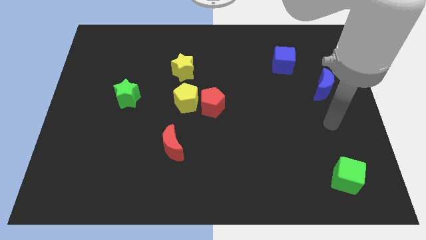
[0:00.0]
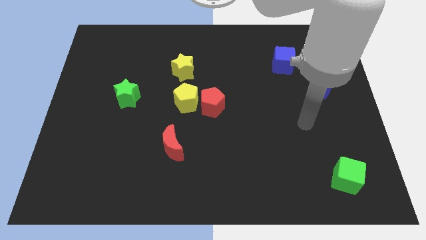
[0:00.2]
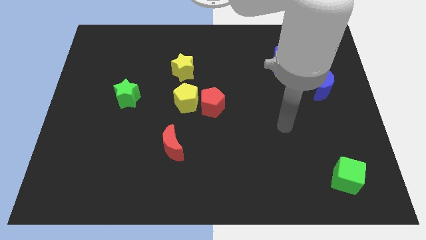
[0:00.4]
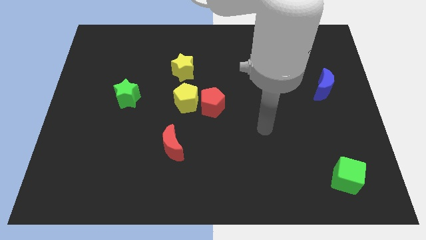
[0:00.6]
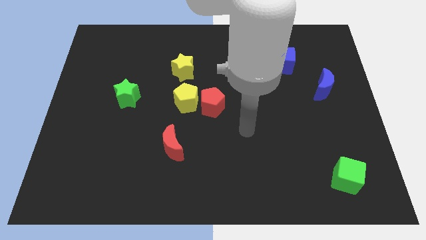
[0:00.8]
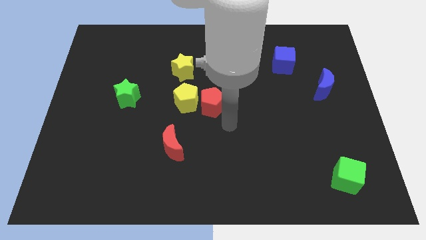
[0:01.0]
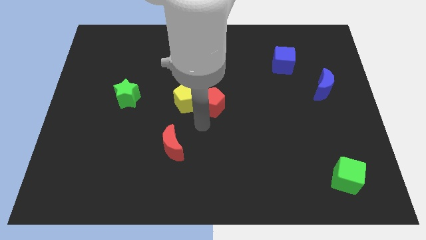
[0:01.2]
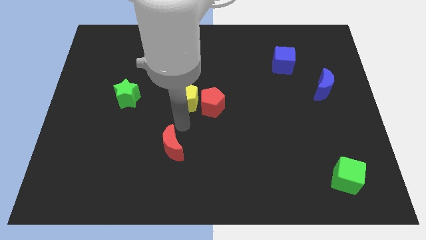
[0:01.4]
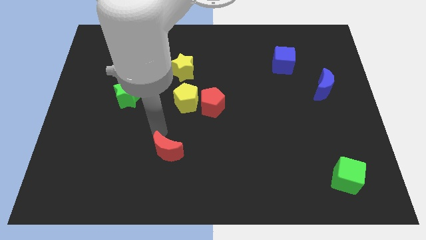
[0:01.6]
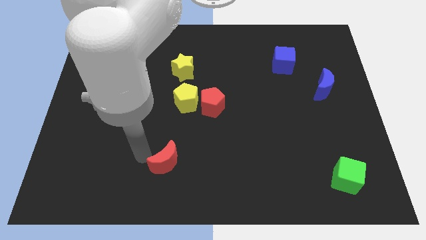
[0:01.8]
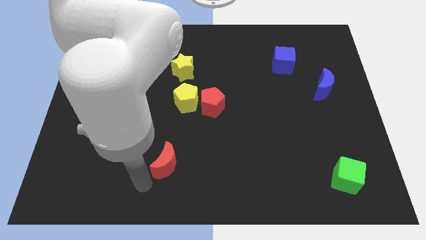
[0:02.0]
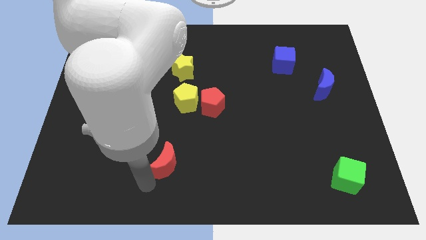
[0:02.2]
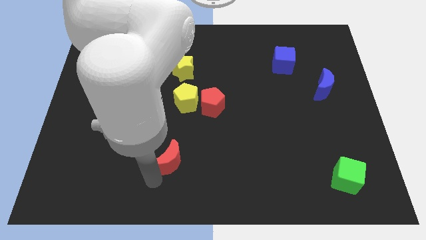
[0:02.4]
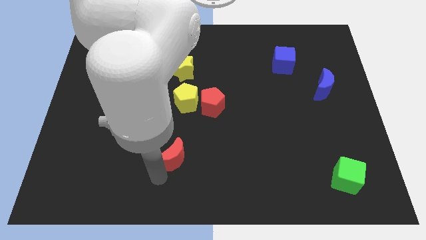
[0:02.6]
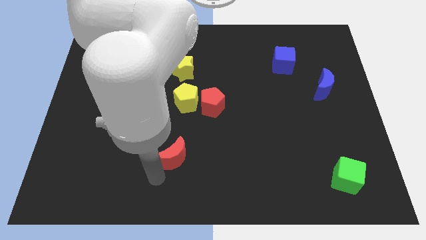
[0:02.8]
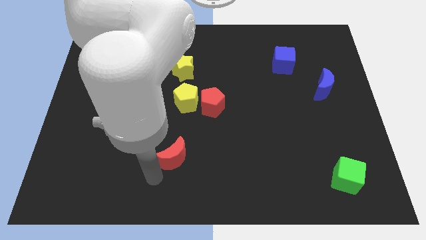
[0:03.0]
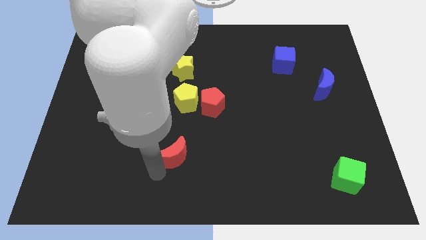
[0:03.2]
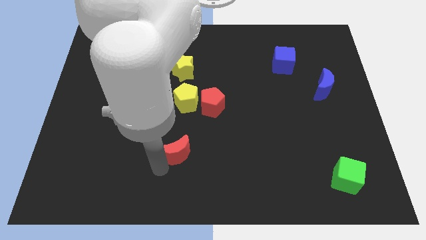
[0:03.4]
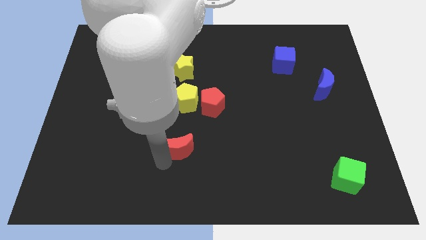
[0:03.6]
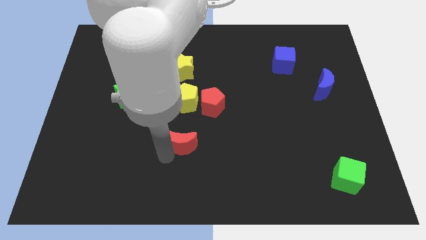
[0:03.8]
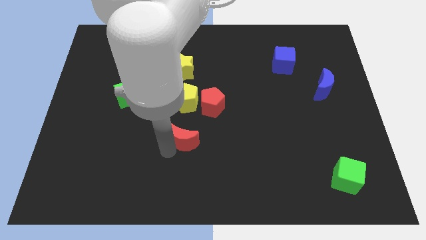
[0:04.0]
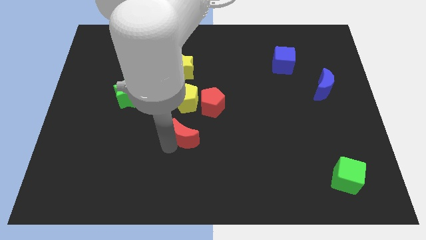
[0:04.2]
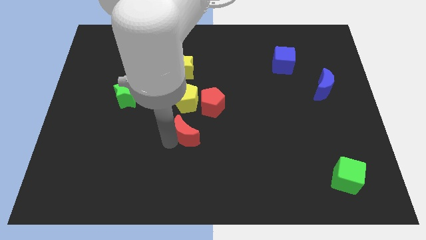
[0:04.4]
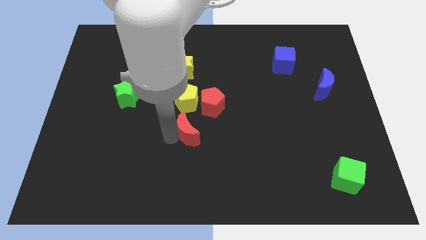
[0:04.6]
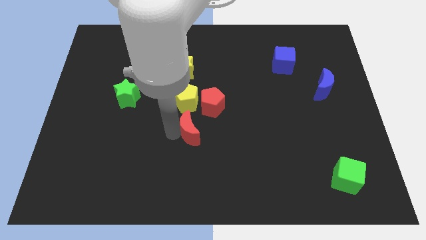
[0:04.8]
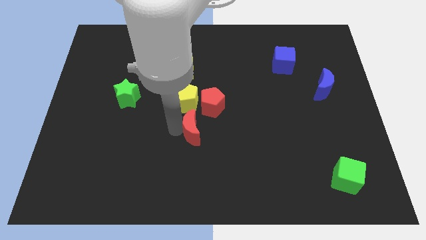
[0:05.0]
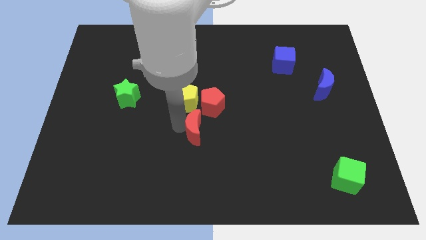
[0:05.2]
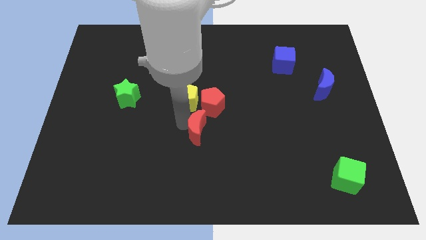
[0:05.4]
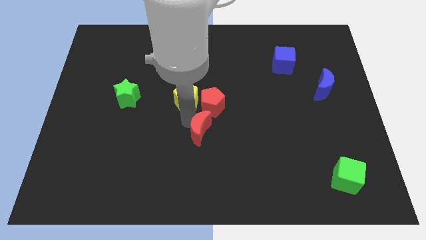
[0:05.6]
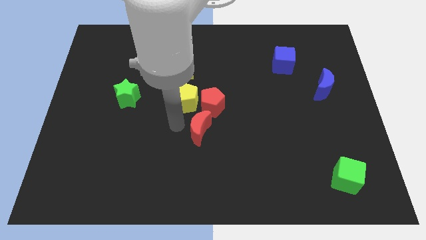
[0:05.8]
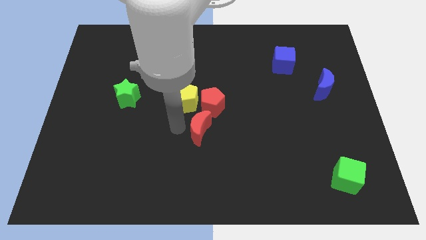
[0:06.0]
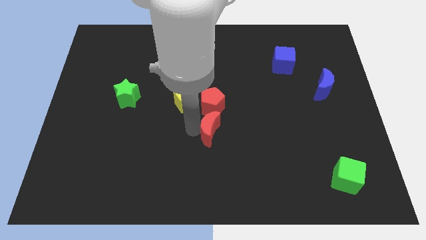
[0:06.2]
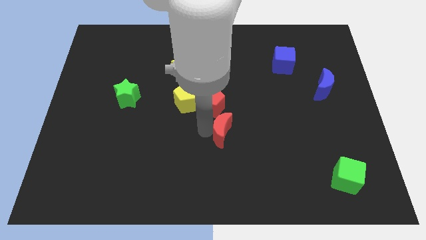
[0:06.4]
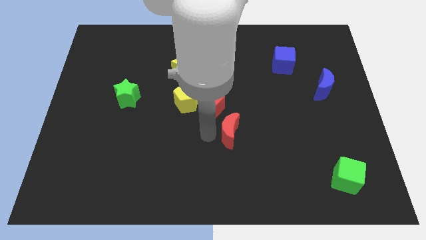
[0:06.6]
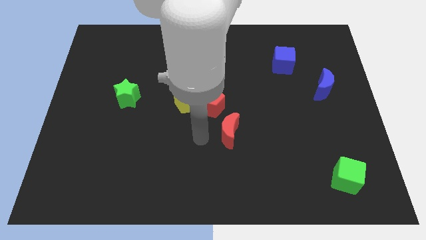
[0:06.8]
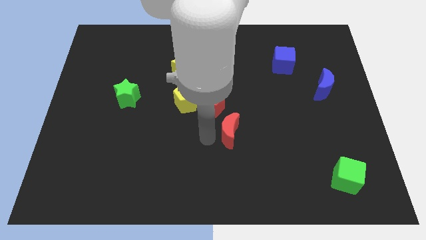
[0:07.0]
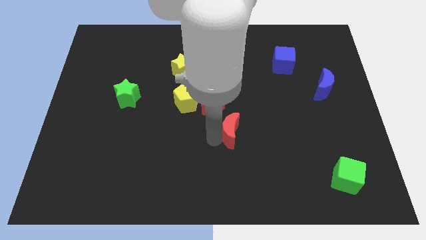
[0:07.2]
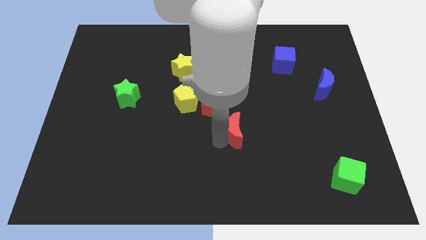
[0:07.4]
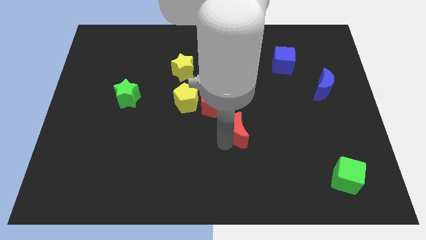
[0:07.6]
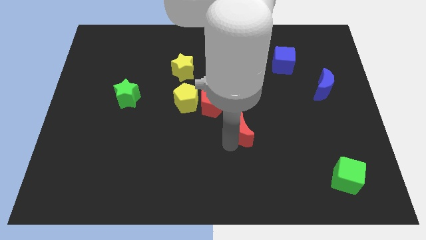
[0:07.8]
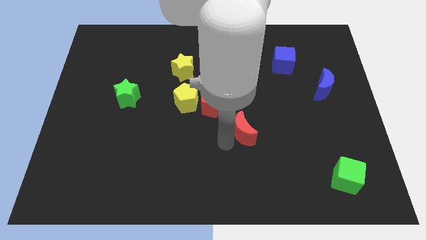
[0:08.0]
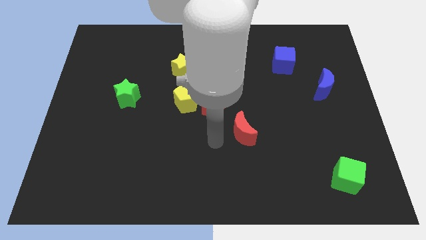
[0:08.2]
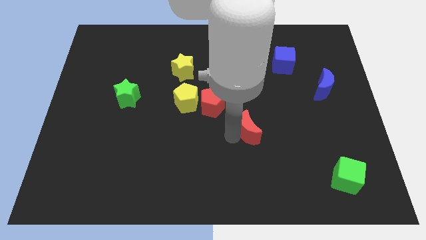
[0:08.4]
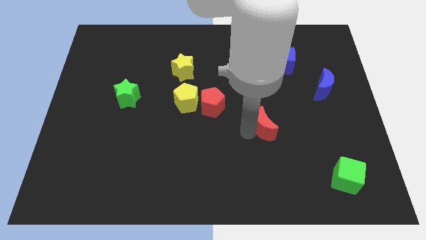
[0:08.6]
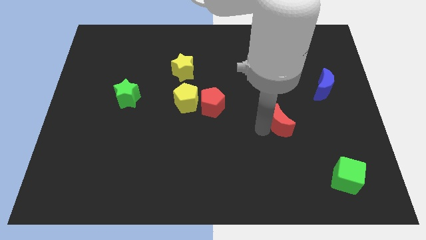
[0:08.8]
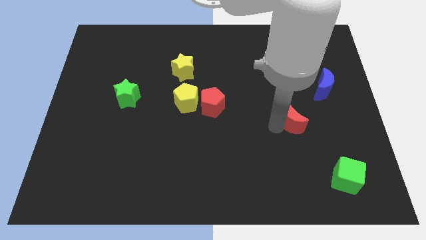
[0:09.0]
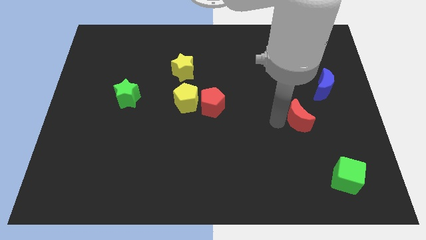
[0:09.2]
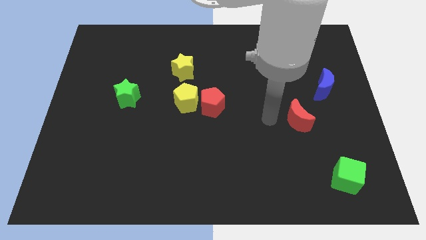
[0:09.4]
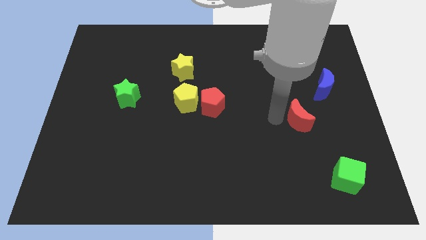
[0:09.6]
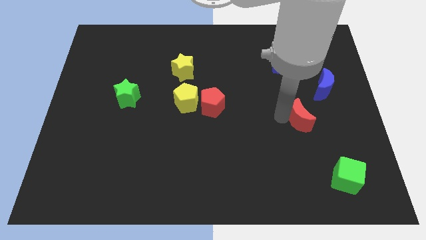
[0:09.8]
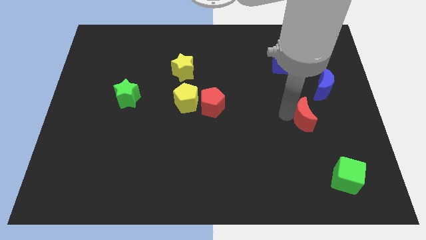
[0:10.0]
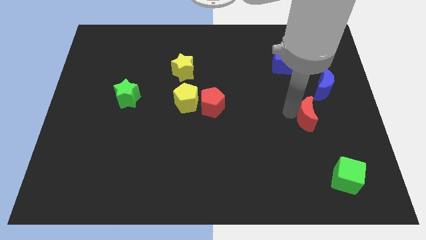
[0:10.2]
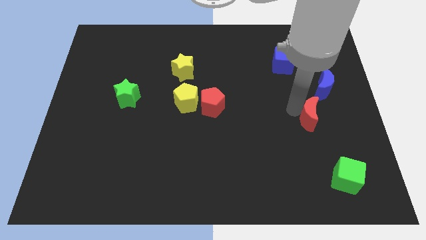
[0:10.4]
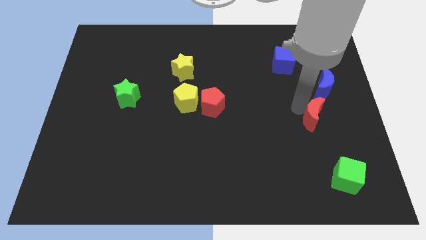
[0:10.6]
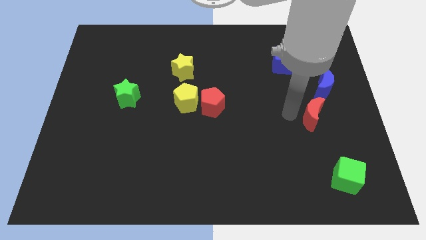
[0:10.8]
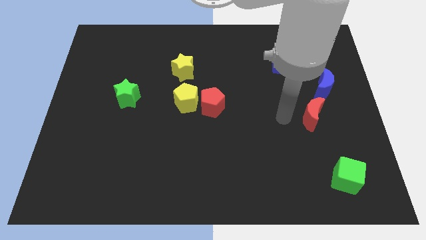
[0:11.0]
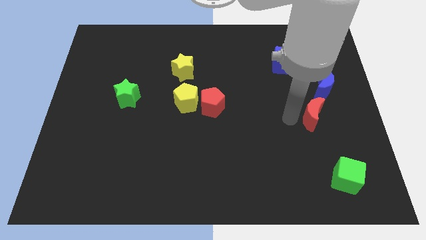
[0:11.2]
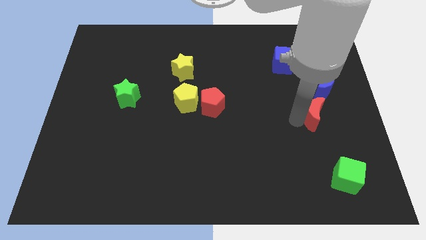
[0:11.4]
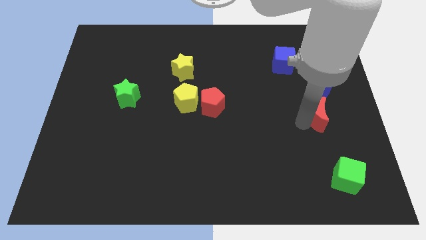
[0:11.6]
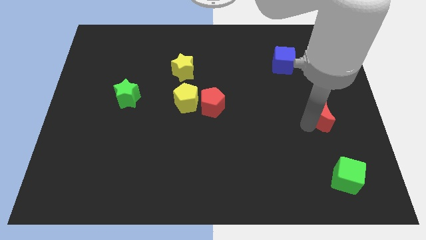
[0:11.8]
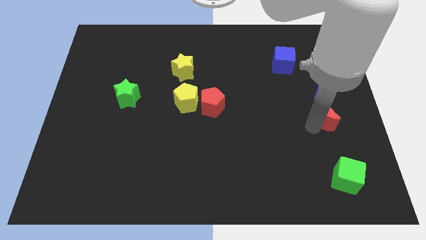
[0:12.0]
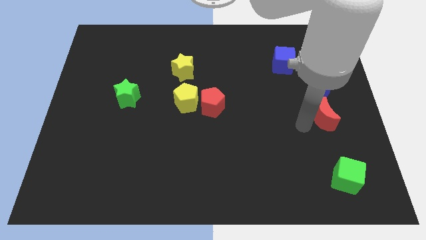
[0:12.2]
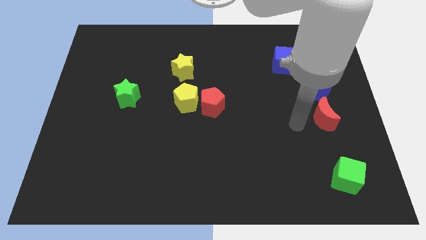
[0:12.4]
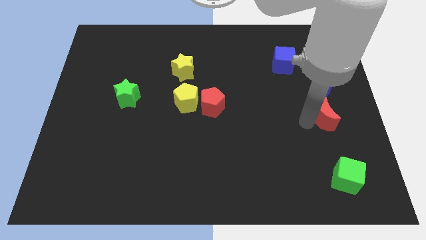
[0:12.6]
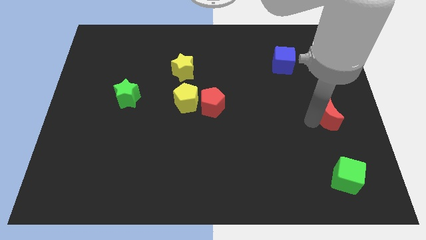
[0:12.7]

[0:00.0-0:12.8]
move the red moon to the right side

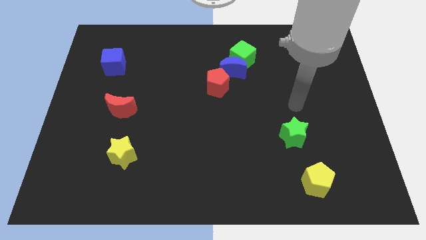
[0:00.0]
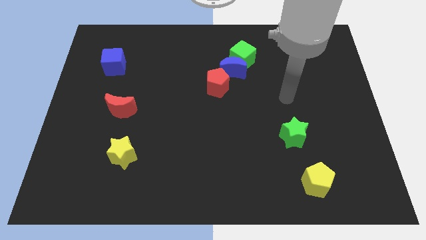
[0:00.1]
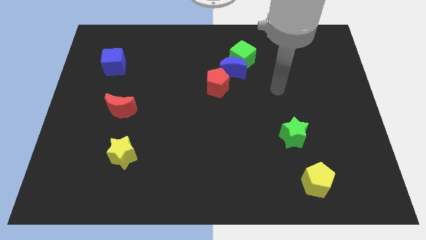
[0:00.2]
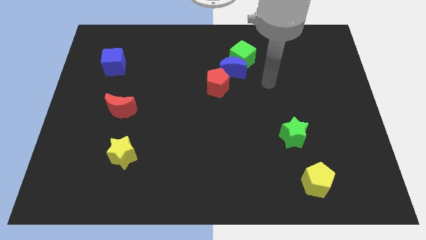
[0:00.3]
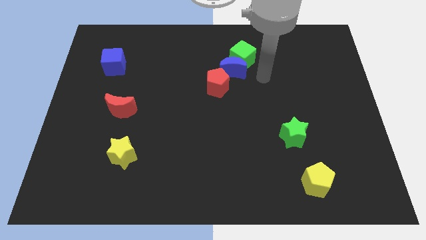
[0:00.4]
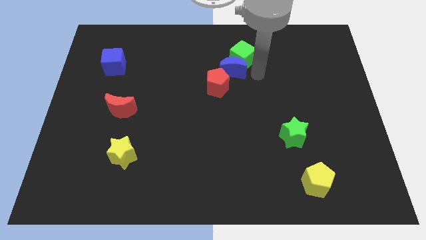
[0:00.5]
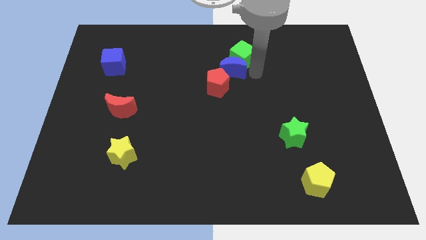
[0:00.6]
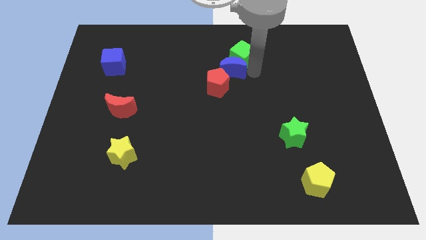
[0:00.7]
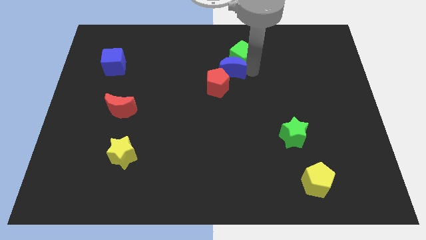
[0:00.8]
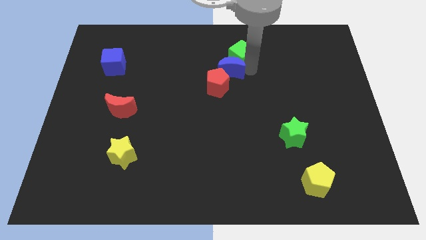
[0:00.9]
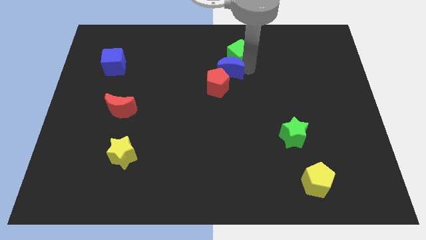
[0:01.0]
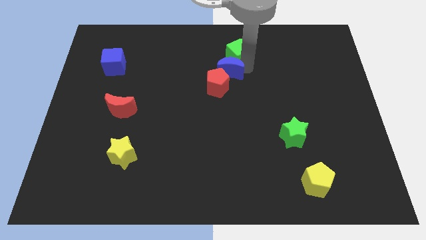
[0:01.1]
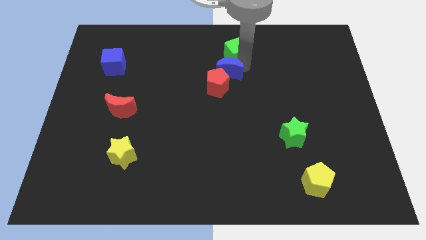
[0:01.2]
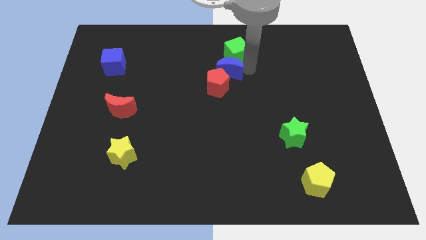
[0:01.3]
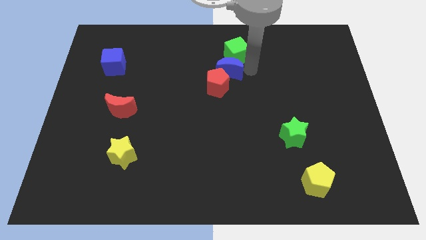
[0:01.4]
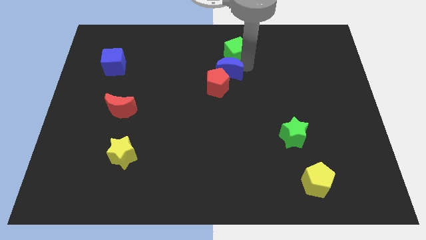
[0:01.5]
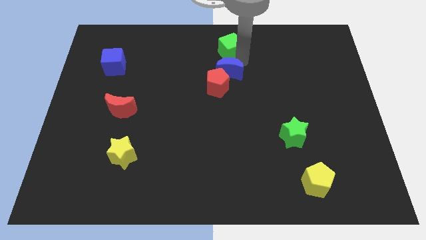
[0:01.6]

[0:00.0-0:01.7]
push the green cube to the towards your base
